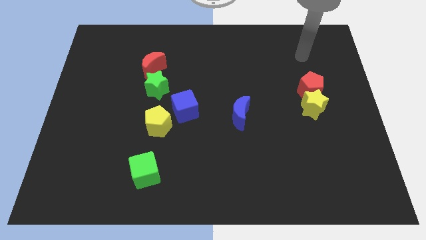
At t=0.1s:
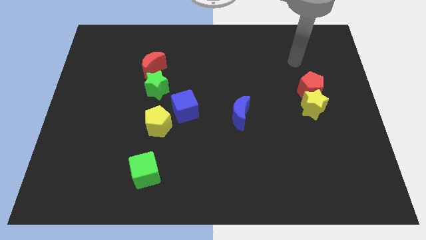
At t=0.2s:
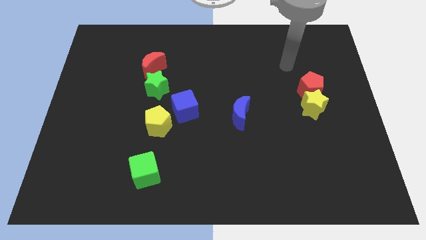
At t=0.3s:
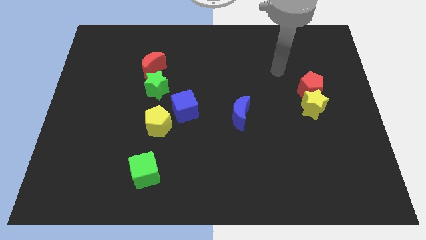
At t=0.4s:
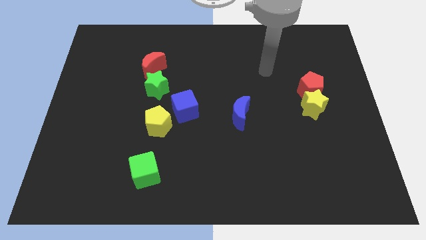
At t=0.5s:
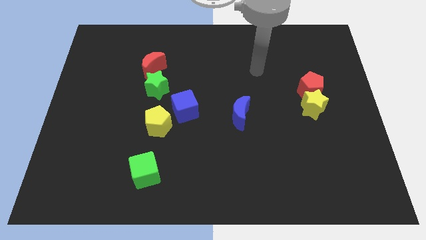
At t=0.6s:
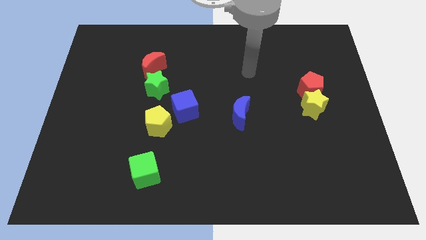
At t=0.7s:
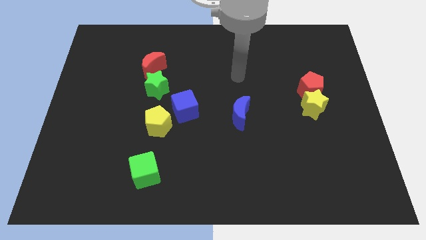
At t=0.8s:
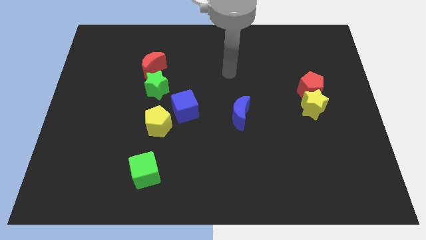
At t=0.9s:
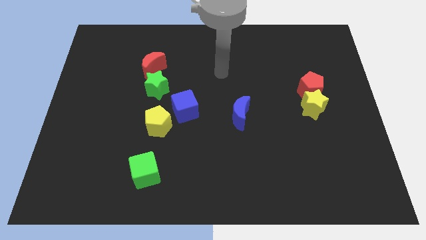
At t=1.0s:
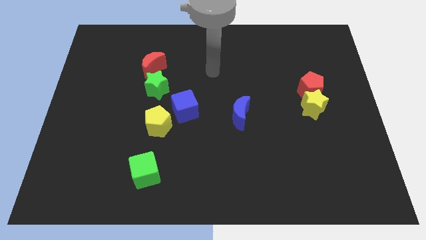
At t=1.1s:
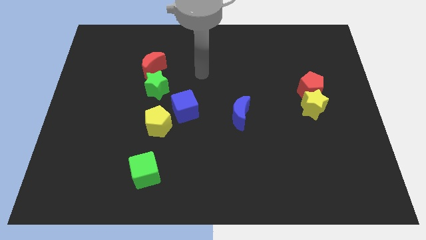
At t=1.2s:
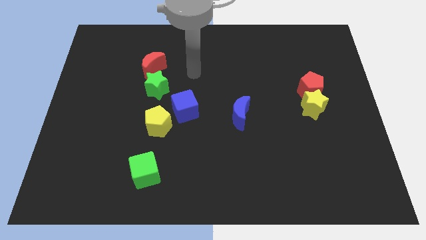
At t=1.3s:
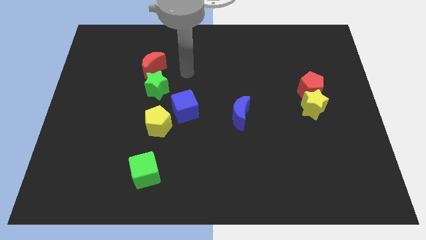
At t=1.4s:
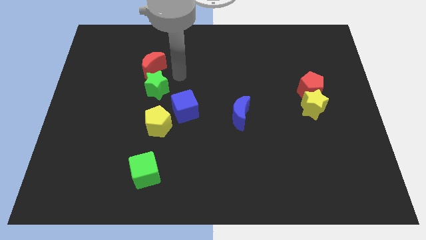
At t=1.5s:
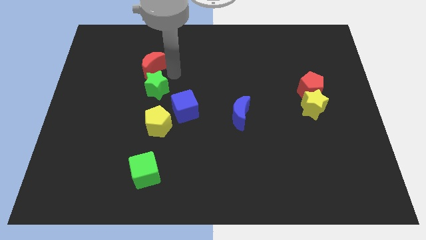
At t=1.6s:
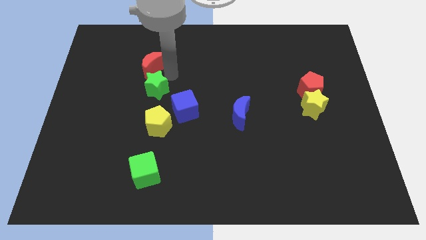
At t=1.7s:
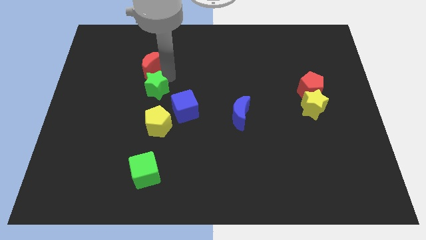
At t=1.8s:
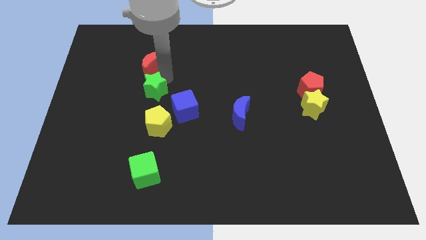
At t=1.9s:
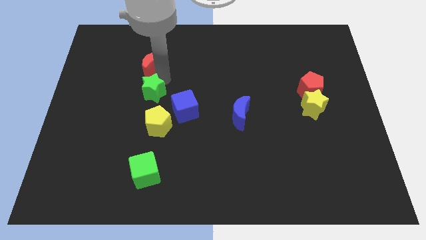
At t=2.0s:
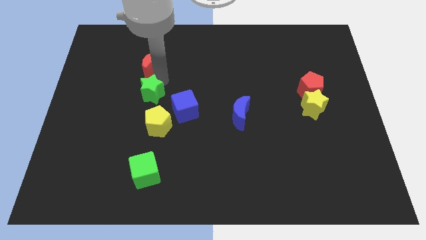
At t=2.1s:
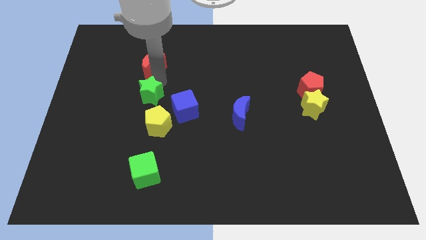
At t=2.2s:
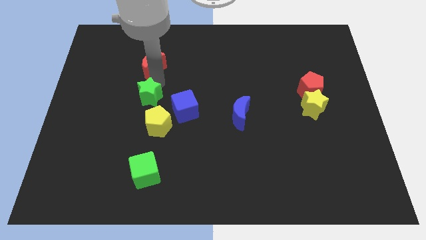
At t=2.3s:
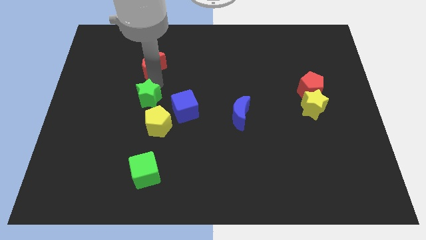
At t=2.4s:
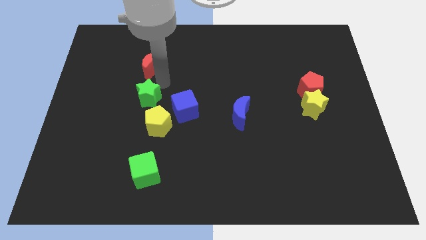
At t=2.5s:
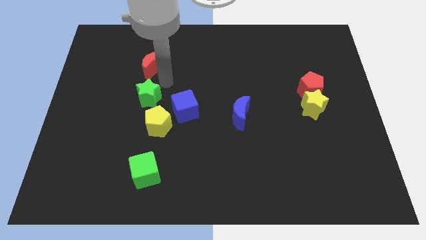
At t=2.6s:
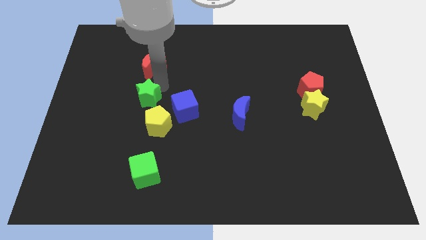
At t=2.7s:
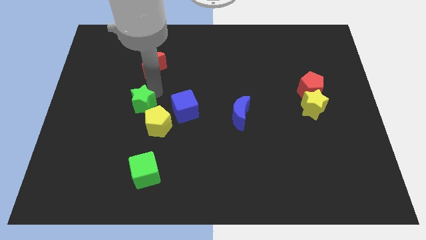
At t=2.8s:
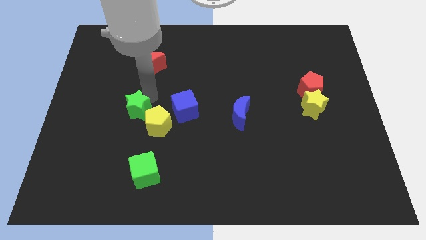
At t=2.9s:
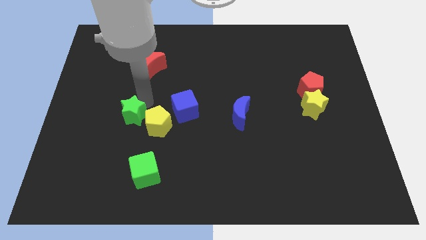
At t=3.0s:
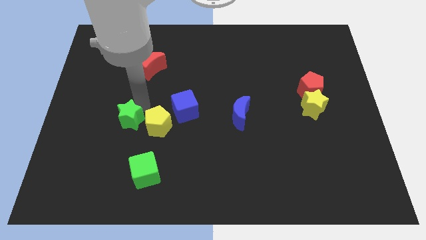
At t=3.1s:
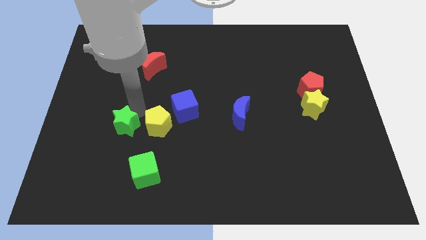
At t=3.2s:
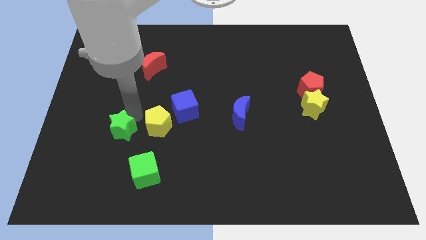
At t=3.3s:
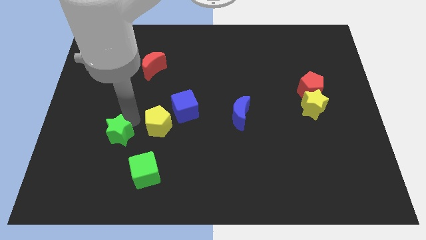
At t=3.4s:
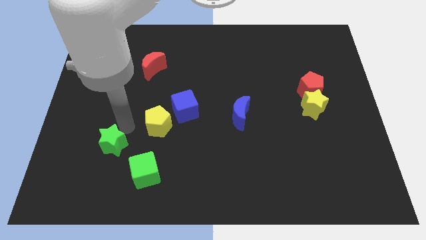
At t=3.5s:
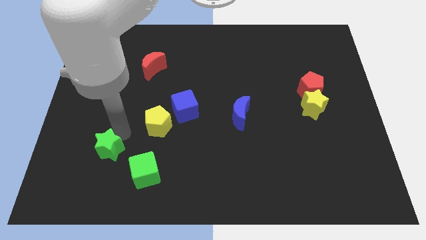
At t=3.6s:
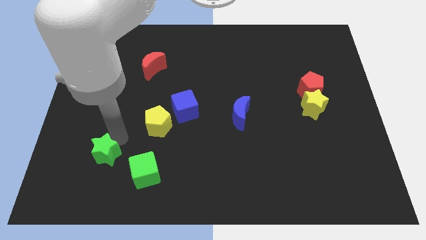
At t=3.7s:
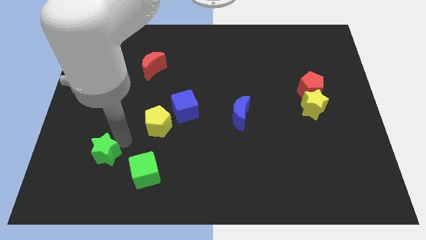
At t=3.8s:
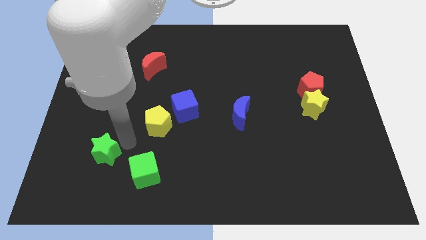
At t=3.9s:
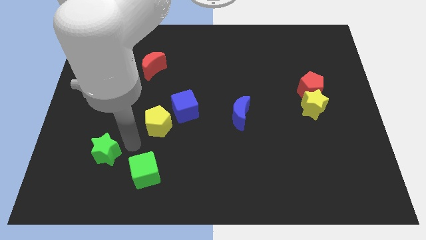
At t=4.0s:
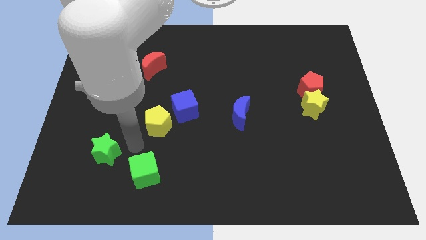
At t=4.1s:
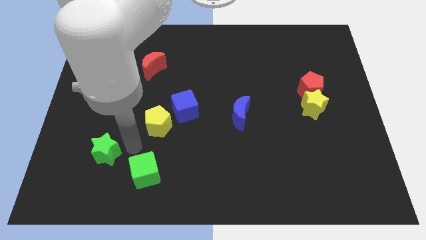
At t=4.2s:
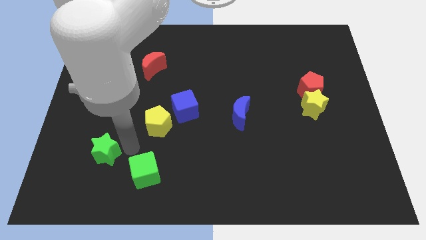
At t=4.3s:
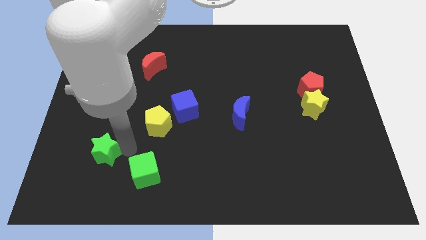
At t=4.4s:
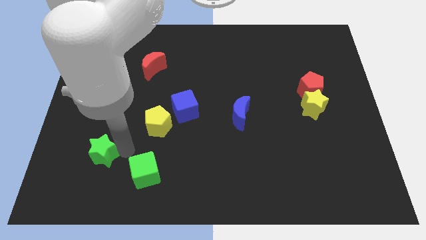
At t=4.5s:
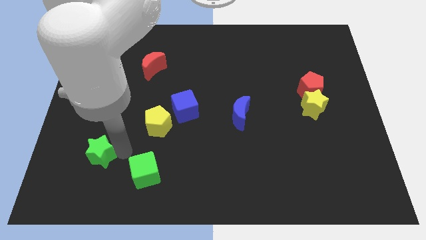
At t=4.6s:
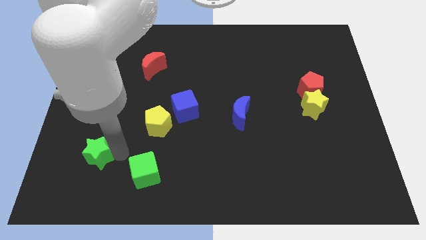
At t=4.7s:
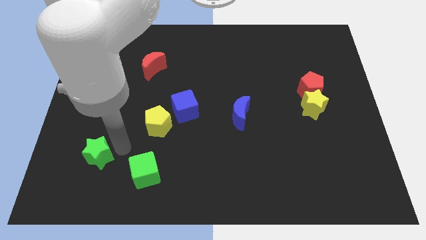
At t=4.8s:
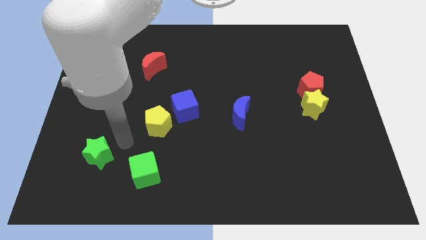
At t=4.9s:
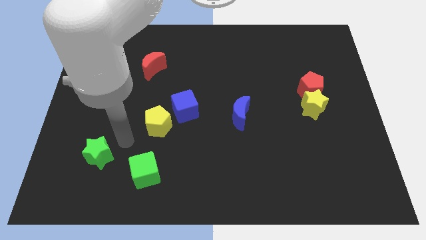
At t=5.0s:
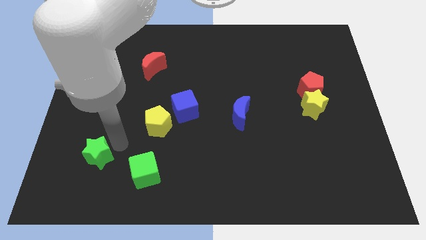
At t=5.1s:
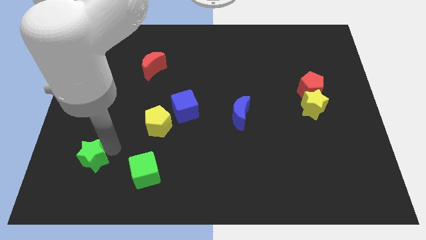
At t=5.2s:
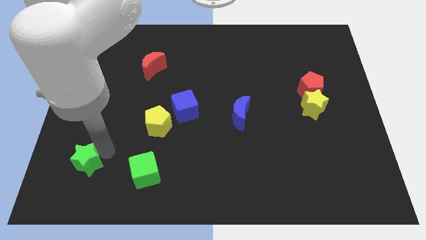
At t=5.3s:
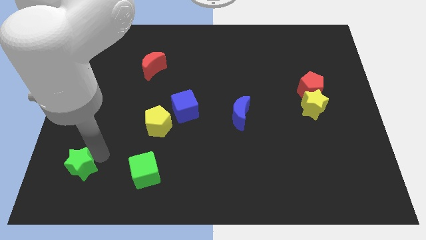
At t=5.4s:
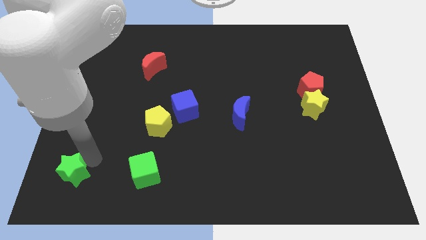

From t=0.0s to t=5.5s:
slide the green star to the bottom left of the board

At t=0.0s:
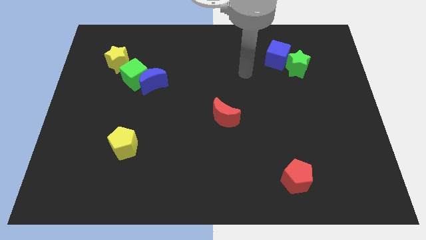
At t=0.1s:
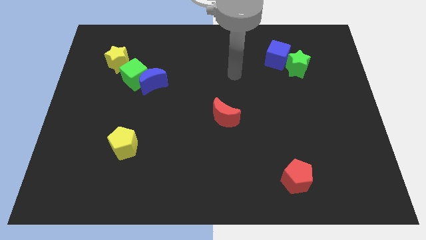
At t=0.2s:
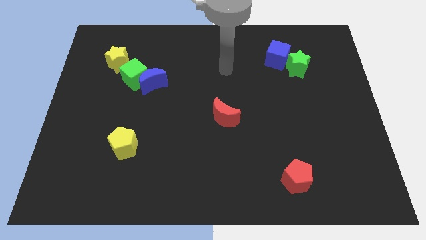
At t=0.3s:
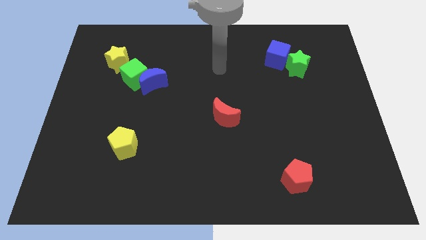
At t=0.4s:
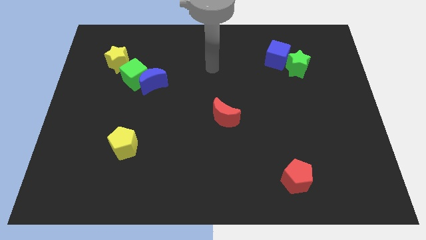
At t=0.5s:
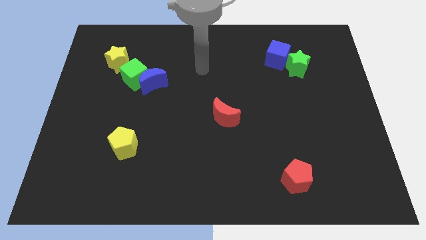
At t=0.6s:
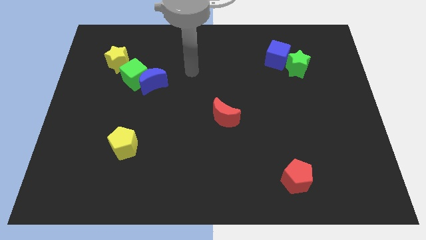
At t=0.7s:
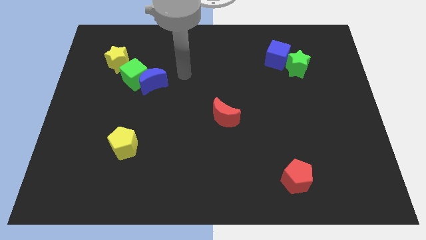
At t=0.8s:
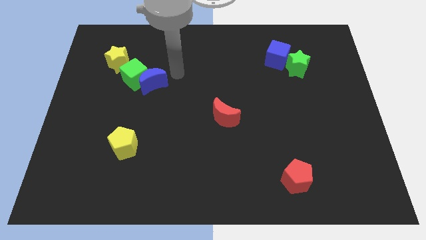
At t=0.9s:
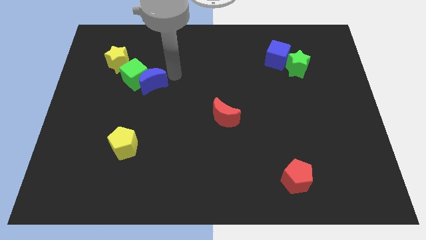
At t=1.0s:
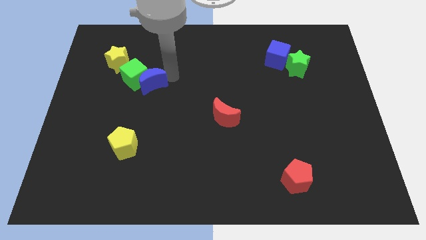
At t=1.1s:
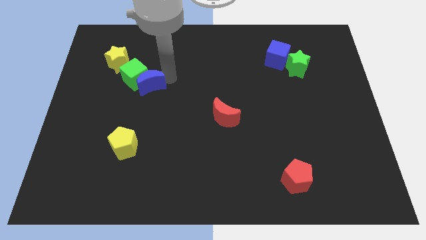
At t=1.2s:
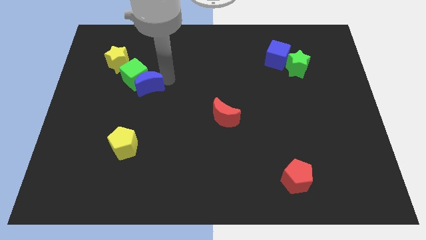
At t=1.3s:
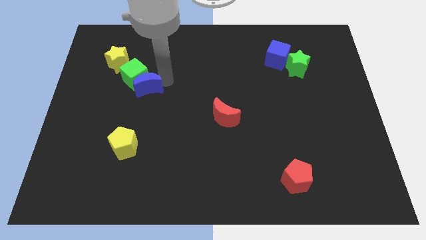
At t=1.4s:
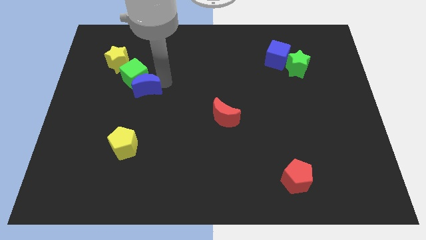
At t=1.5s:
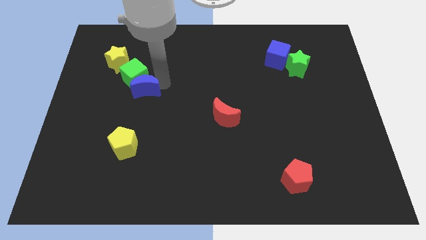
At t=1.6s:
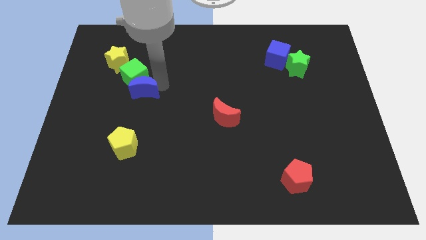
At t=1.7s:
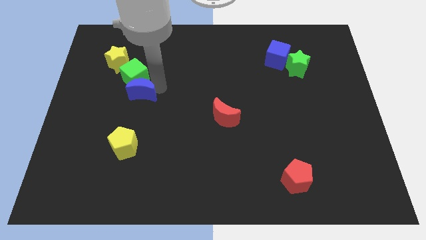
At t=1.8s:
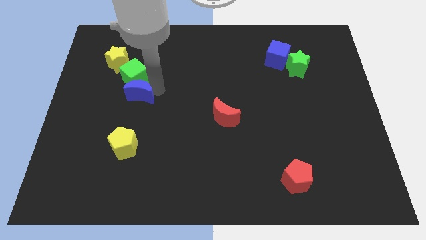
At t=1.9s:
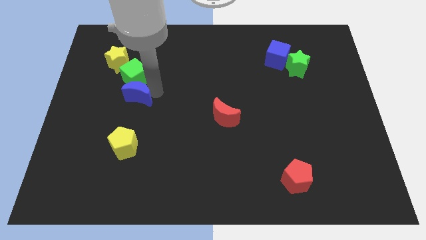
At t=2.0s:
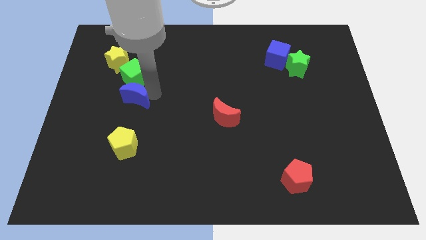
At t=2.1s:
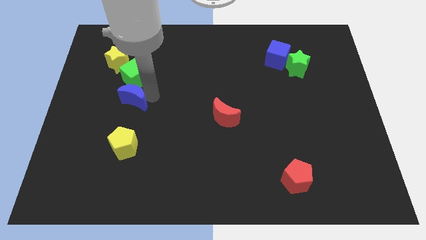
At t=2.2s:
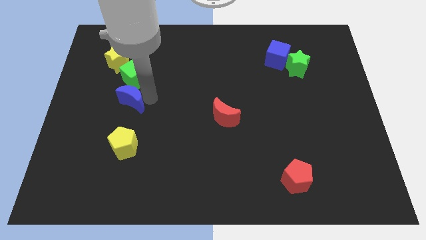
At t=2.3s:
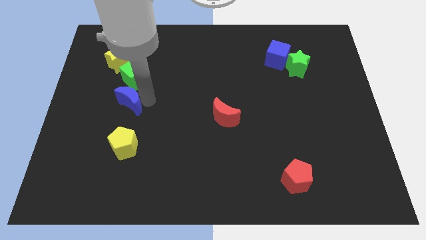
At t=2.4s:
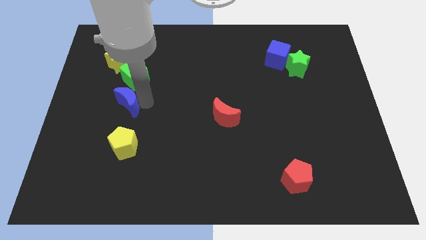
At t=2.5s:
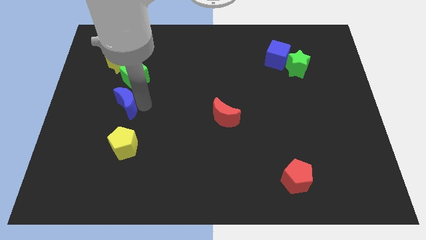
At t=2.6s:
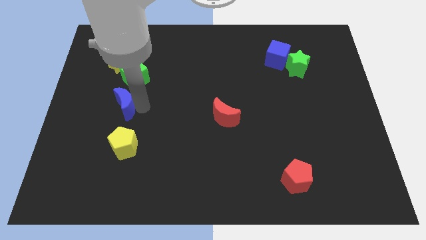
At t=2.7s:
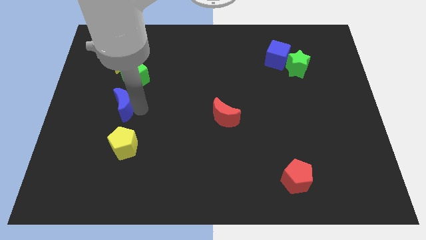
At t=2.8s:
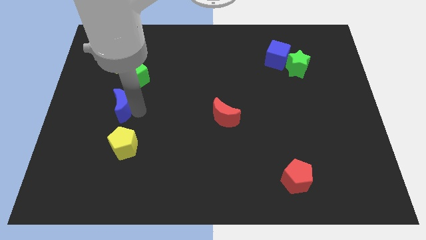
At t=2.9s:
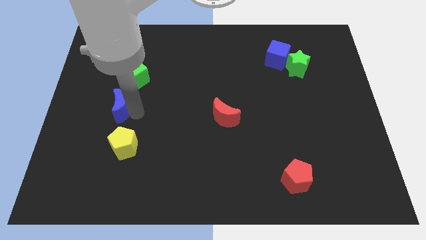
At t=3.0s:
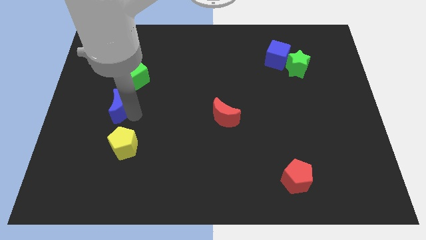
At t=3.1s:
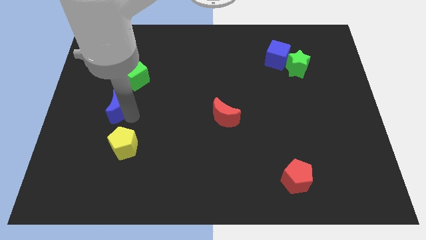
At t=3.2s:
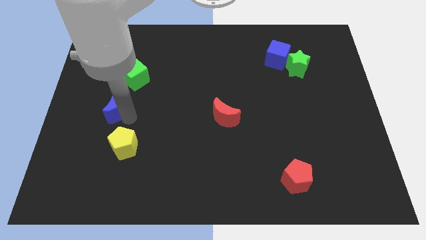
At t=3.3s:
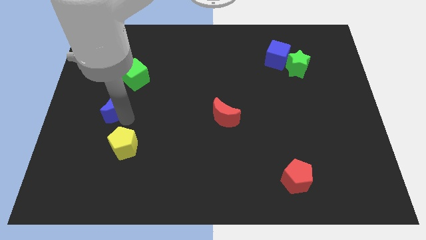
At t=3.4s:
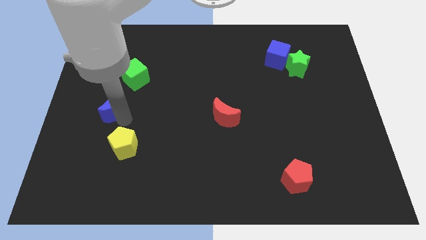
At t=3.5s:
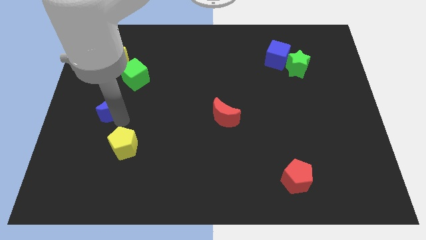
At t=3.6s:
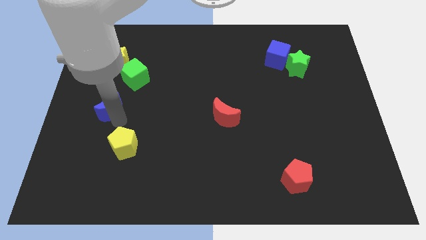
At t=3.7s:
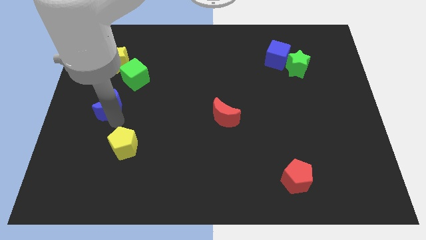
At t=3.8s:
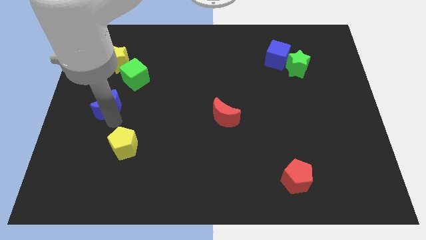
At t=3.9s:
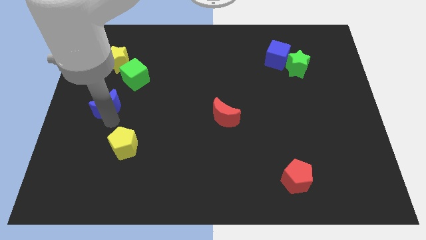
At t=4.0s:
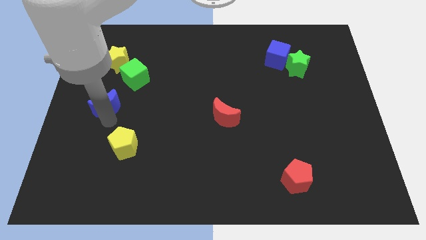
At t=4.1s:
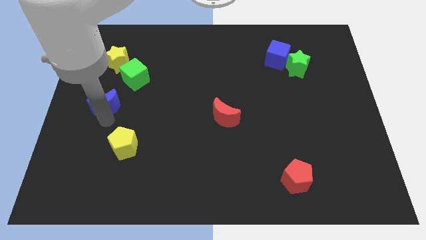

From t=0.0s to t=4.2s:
push the blue moon to the left side
